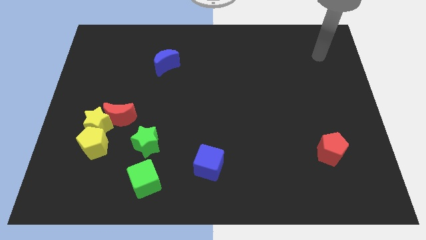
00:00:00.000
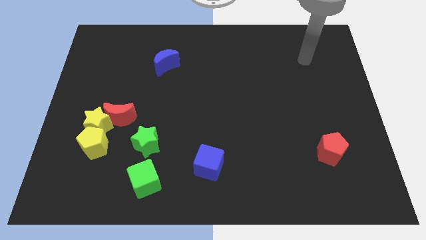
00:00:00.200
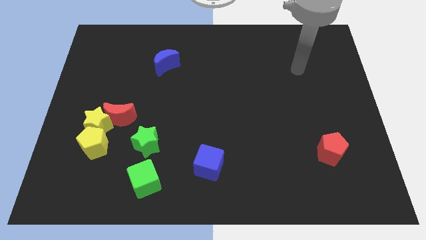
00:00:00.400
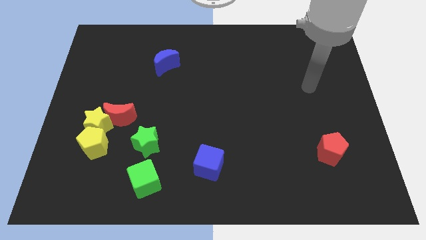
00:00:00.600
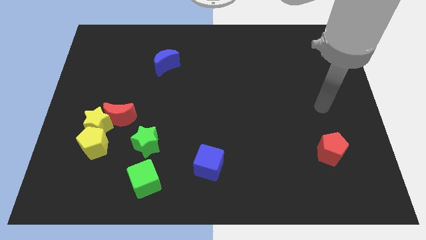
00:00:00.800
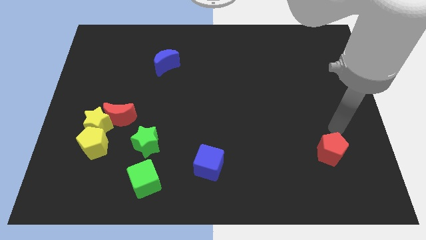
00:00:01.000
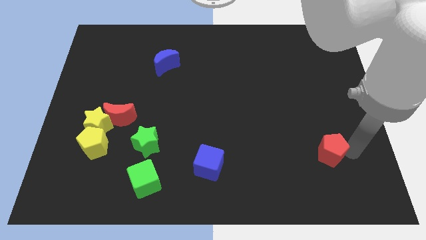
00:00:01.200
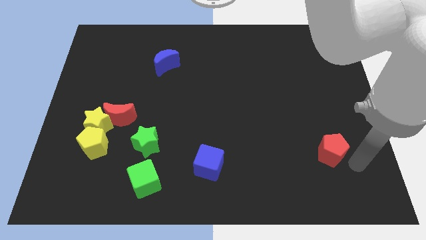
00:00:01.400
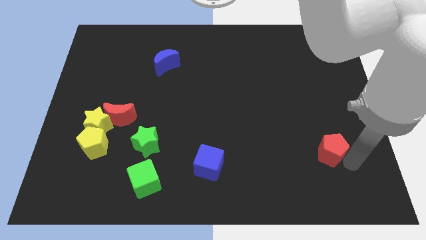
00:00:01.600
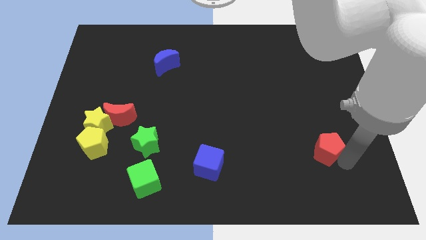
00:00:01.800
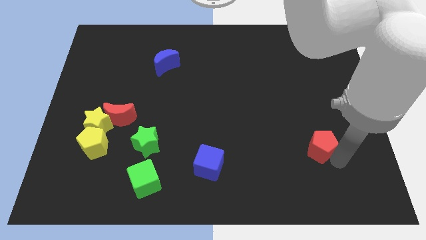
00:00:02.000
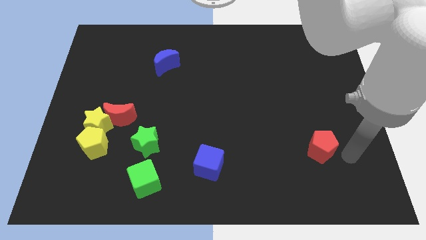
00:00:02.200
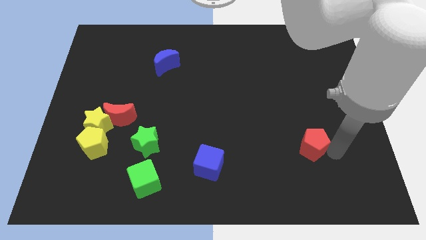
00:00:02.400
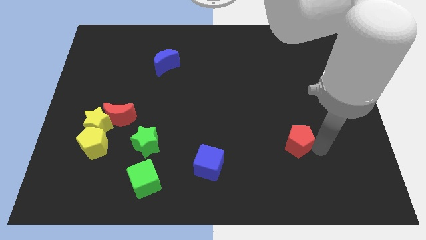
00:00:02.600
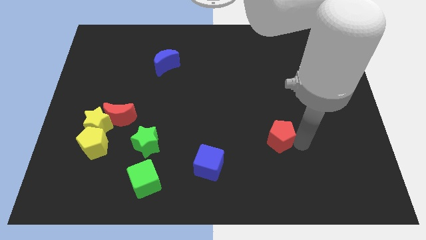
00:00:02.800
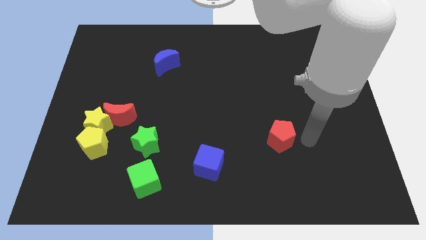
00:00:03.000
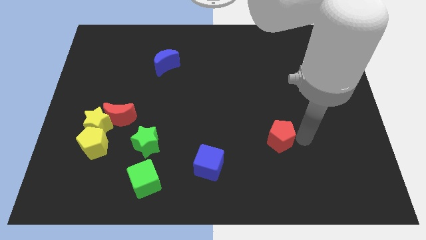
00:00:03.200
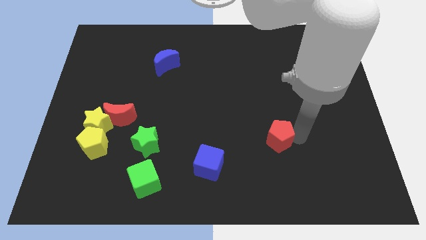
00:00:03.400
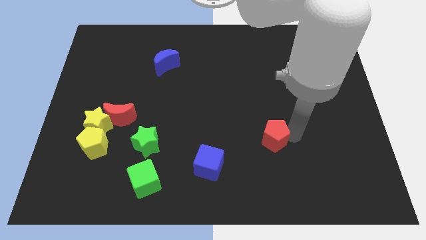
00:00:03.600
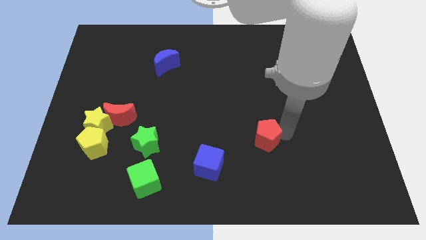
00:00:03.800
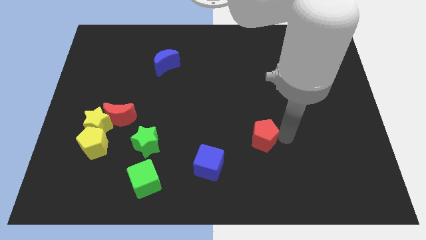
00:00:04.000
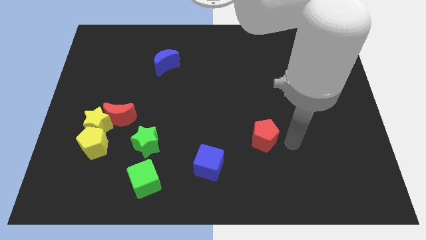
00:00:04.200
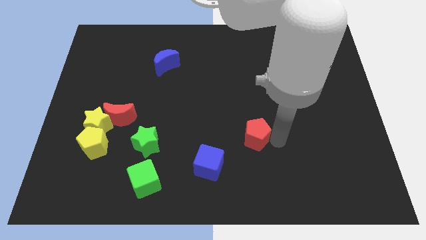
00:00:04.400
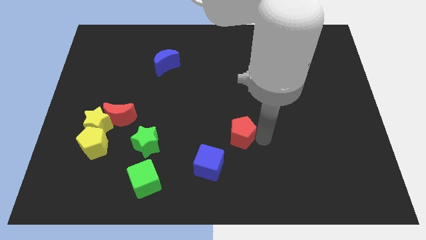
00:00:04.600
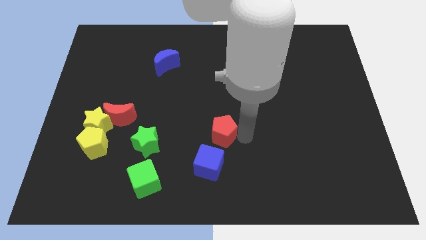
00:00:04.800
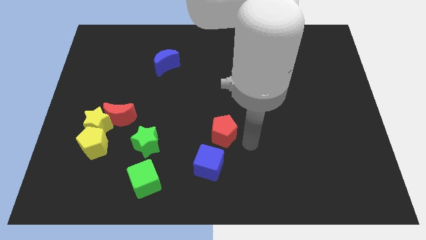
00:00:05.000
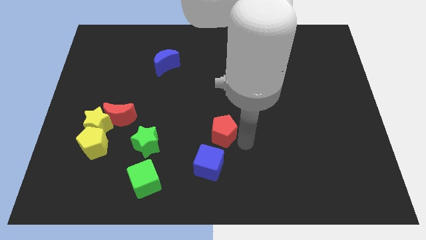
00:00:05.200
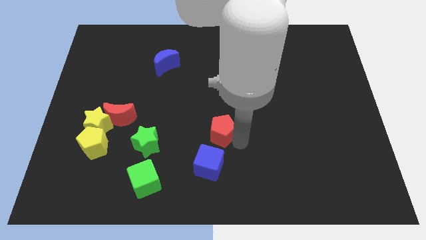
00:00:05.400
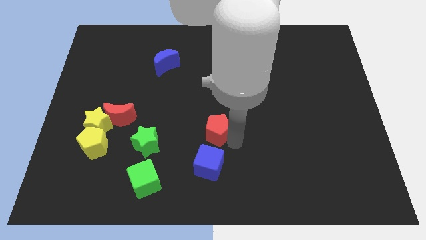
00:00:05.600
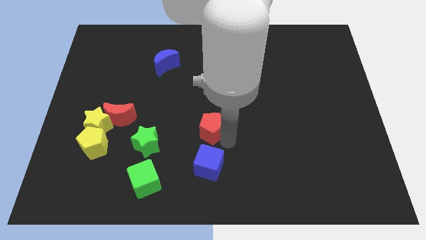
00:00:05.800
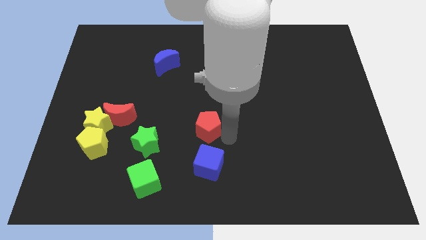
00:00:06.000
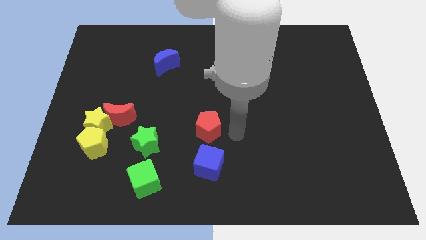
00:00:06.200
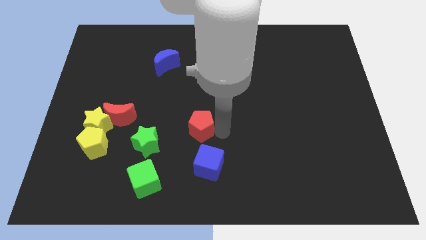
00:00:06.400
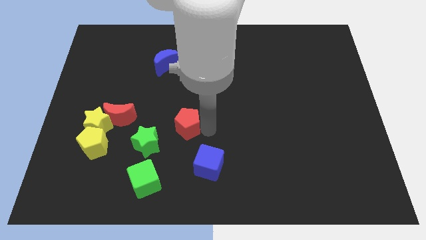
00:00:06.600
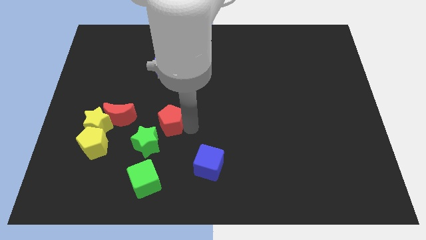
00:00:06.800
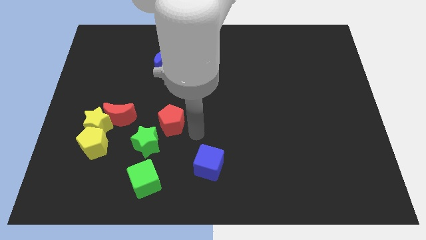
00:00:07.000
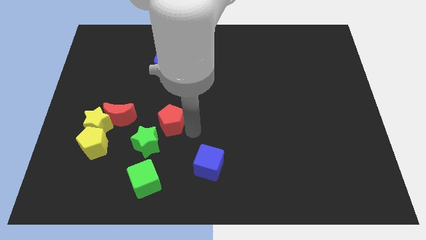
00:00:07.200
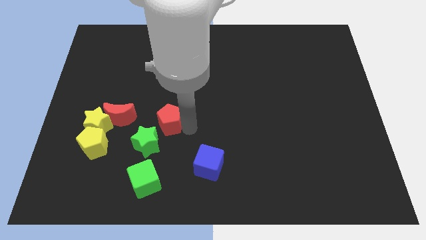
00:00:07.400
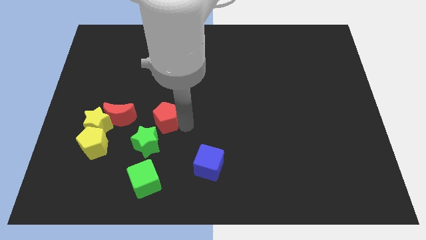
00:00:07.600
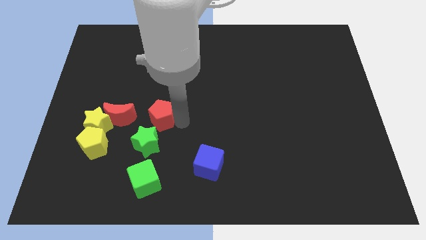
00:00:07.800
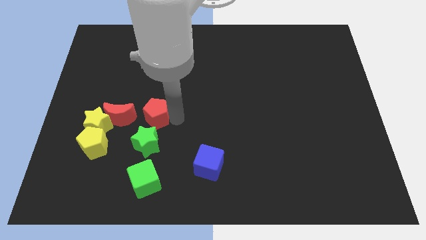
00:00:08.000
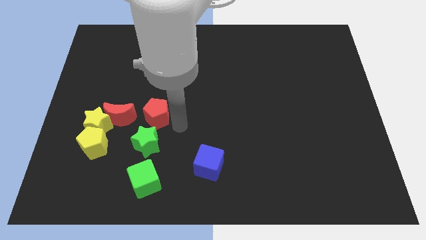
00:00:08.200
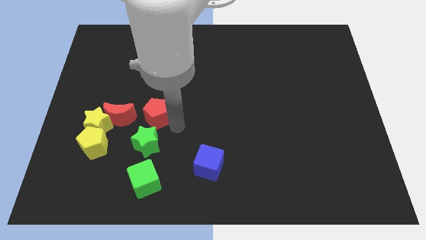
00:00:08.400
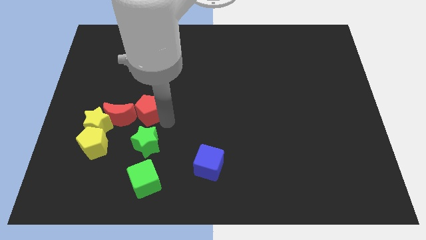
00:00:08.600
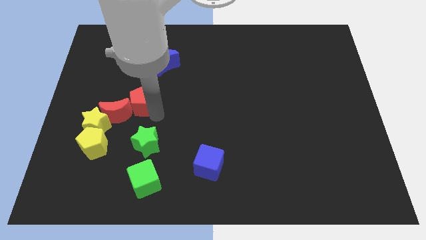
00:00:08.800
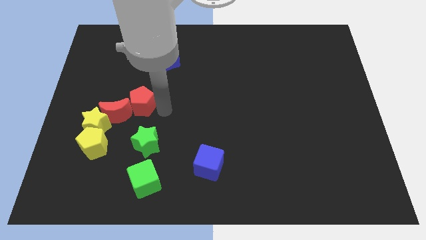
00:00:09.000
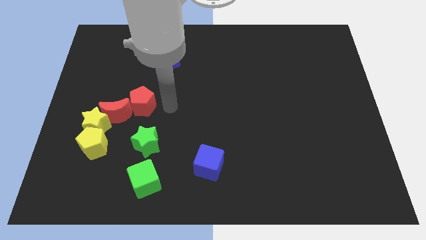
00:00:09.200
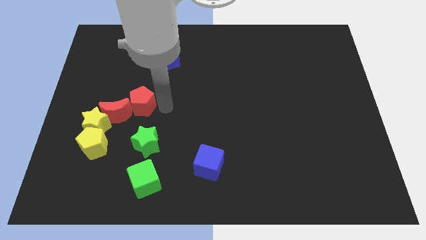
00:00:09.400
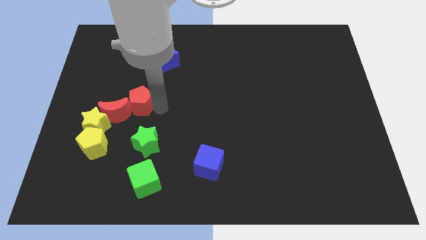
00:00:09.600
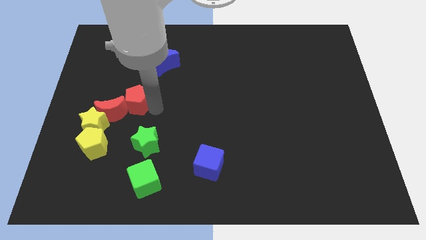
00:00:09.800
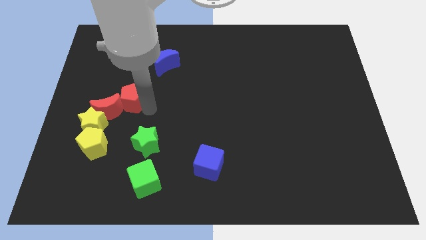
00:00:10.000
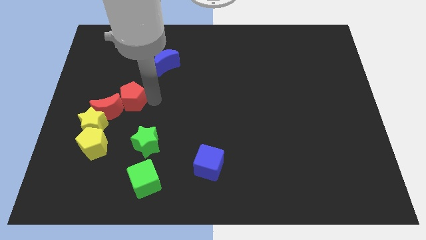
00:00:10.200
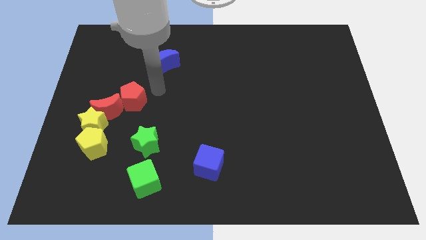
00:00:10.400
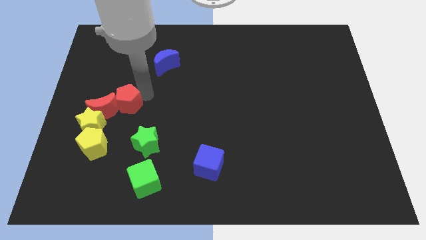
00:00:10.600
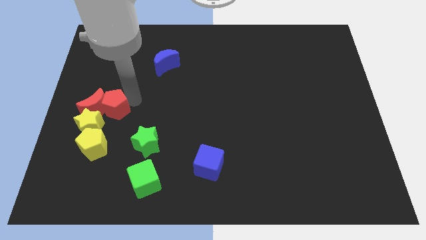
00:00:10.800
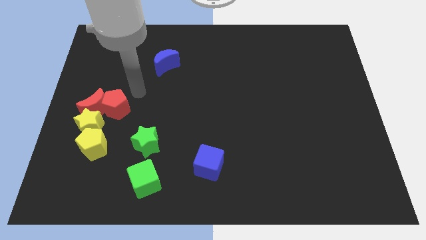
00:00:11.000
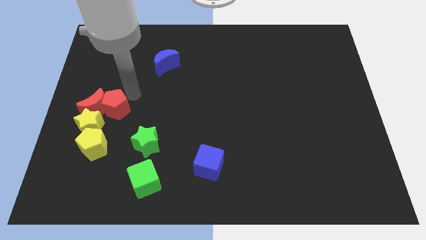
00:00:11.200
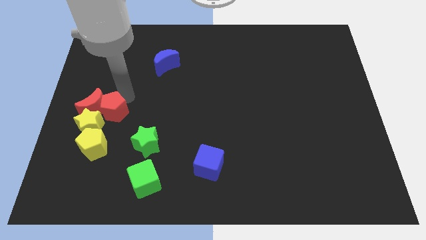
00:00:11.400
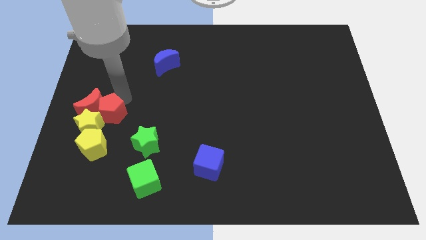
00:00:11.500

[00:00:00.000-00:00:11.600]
push the red pentagon close to the yellow star
